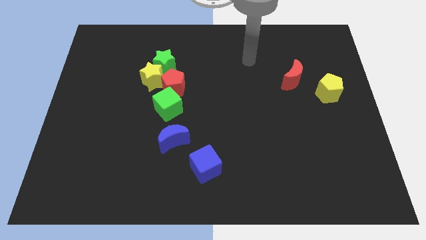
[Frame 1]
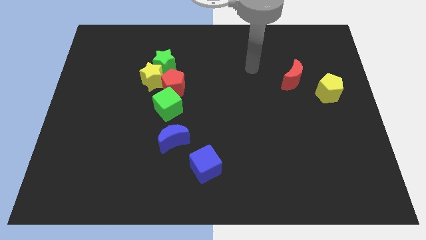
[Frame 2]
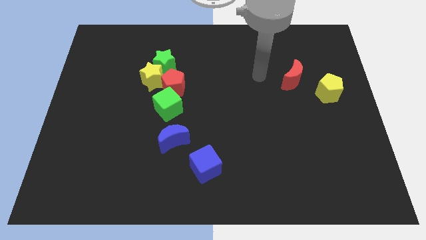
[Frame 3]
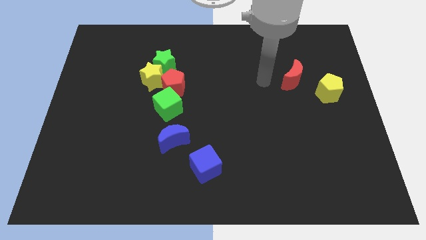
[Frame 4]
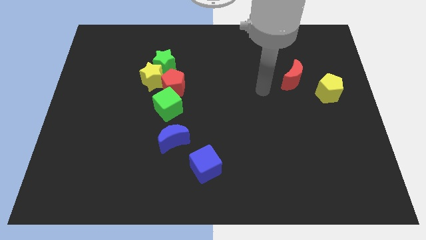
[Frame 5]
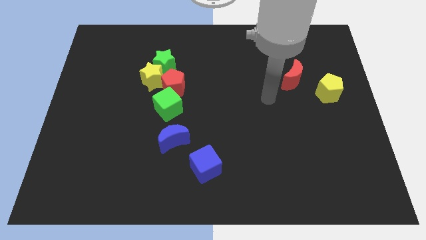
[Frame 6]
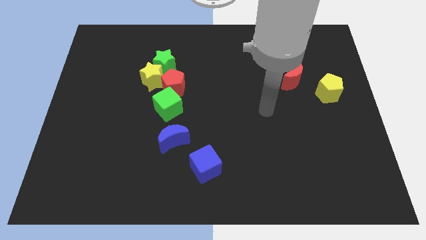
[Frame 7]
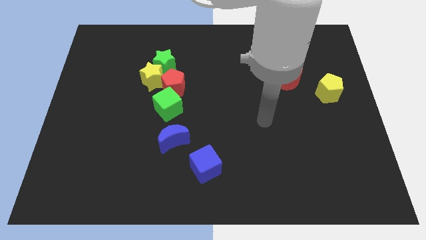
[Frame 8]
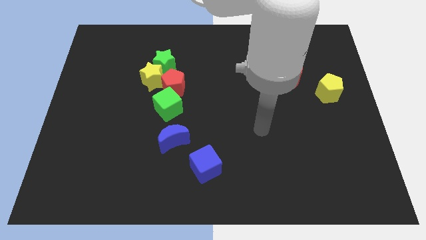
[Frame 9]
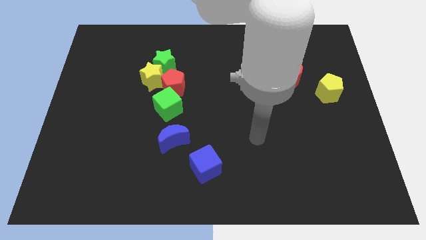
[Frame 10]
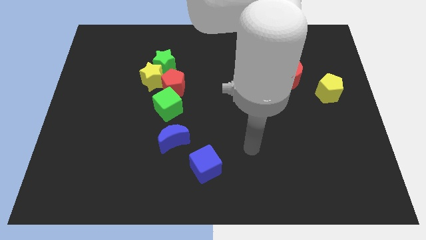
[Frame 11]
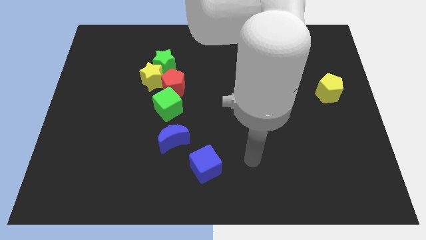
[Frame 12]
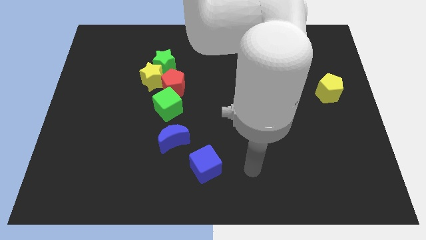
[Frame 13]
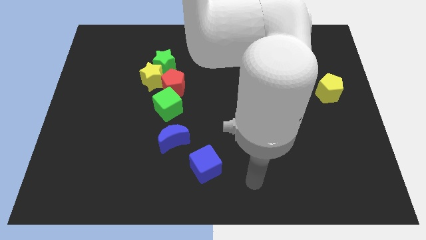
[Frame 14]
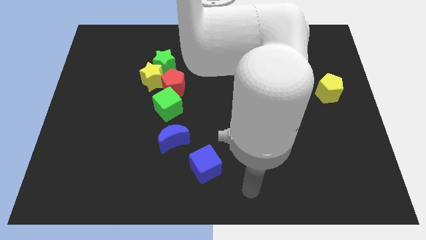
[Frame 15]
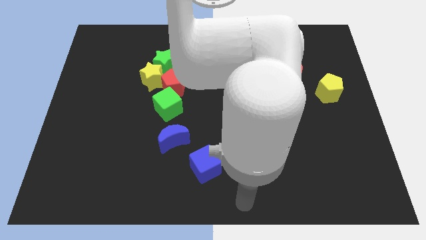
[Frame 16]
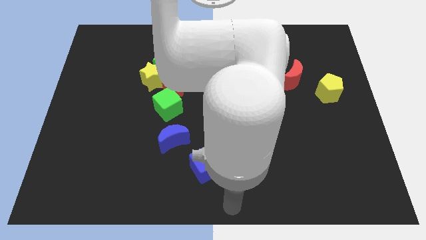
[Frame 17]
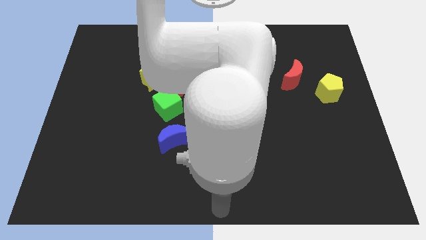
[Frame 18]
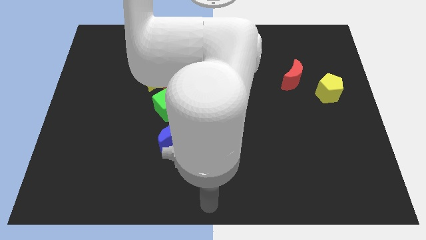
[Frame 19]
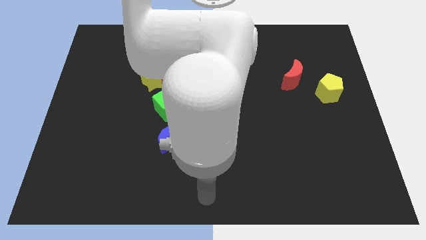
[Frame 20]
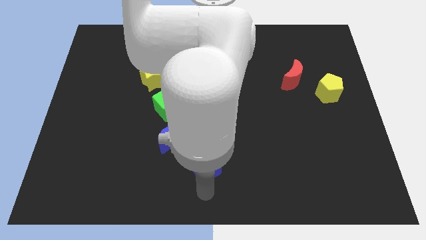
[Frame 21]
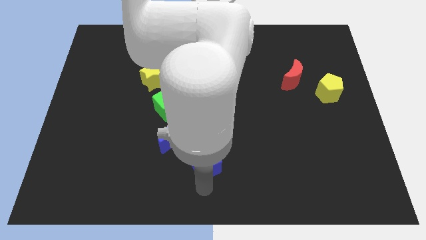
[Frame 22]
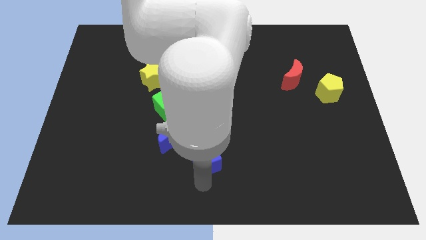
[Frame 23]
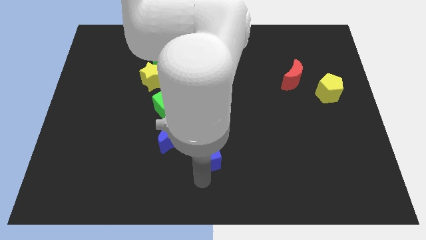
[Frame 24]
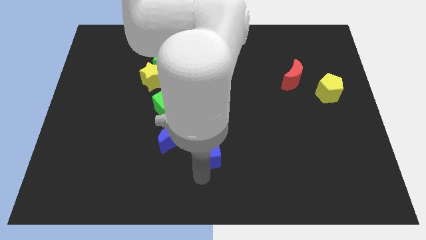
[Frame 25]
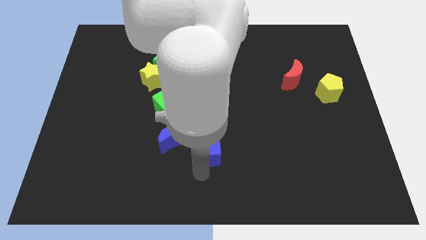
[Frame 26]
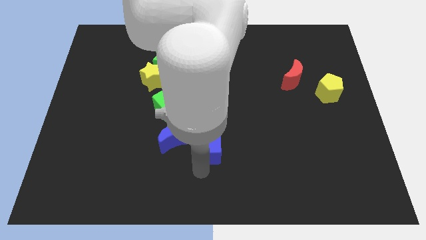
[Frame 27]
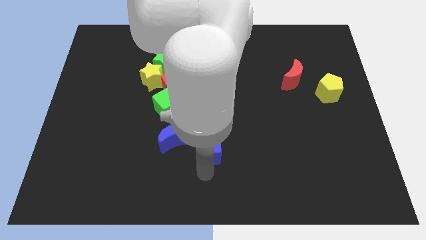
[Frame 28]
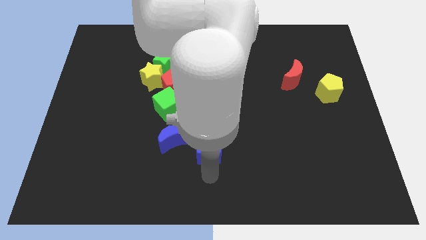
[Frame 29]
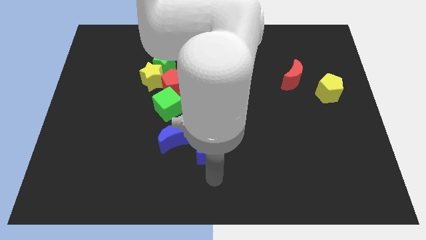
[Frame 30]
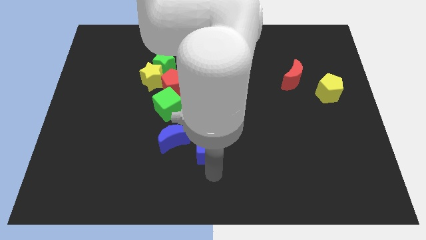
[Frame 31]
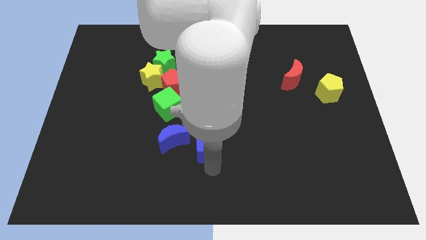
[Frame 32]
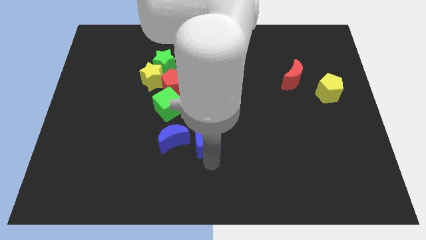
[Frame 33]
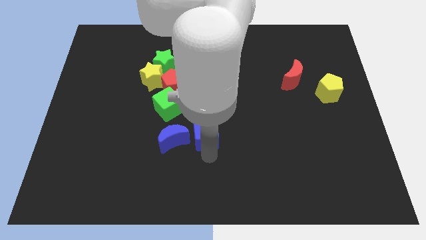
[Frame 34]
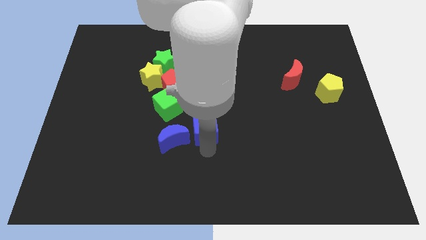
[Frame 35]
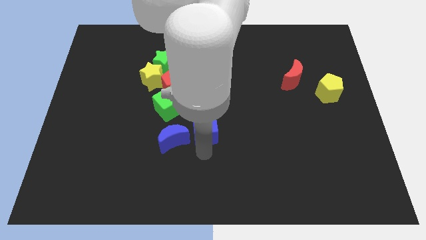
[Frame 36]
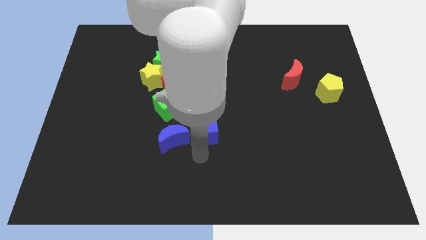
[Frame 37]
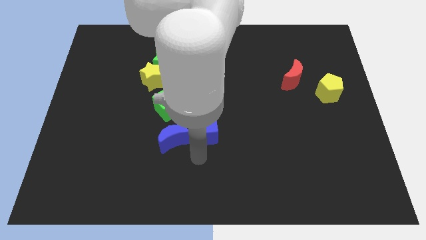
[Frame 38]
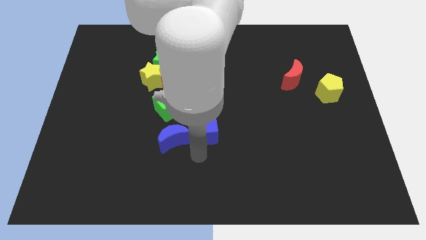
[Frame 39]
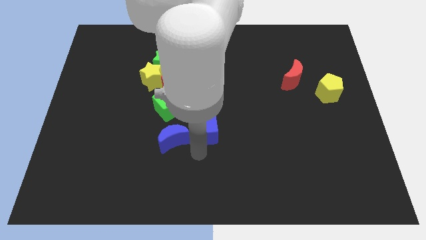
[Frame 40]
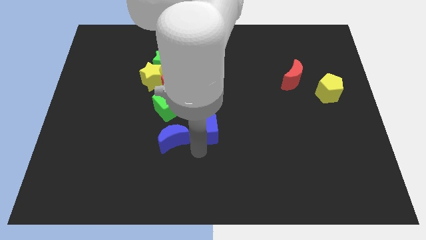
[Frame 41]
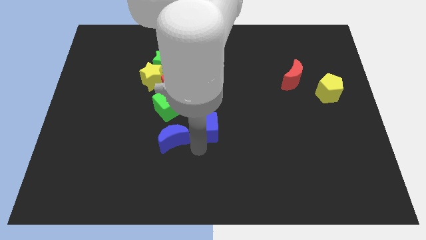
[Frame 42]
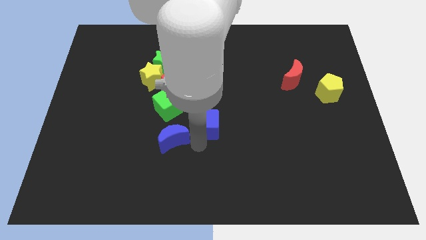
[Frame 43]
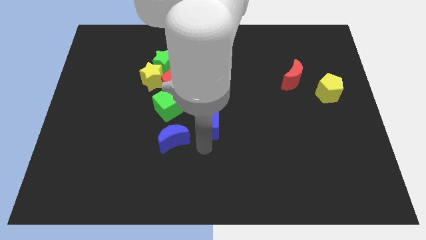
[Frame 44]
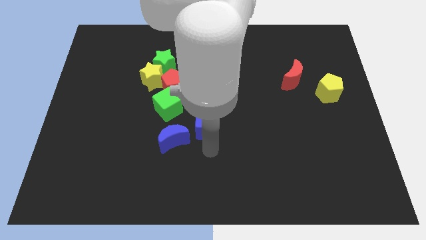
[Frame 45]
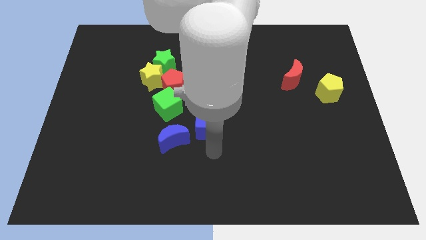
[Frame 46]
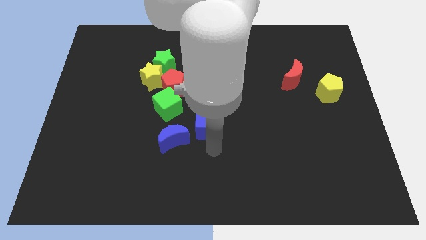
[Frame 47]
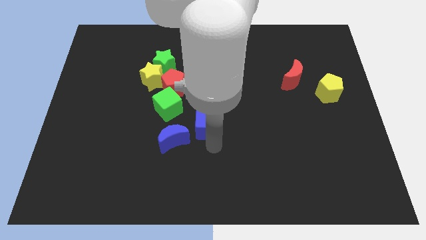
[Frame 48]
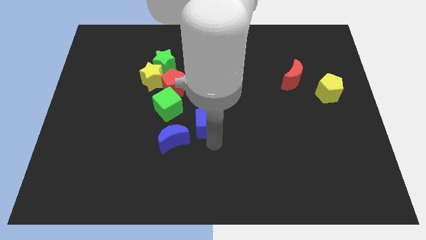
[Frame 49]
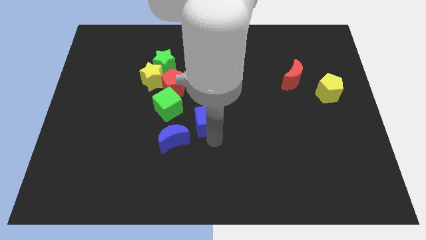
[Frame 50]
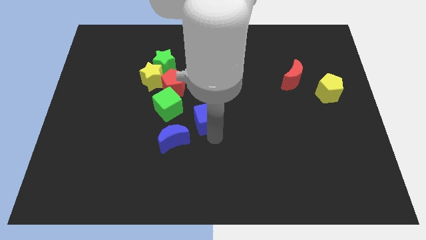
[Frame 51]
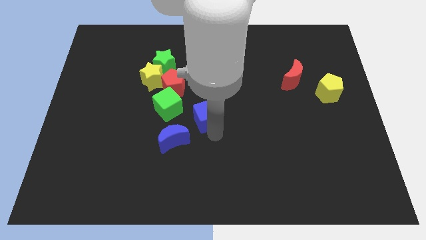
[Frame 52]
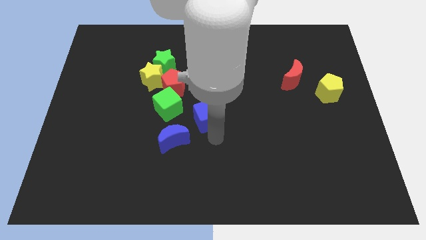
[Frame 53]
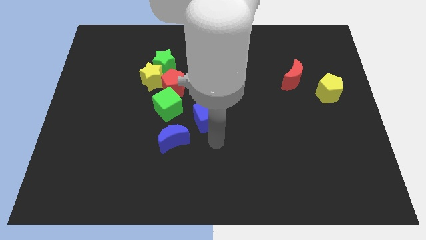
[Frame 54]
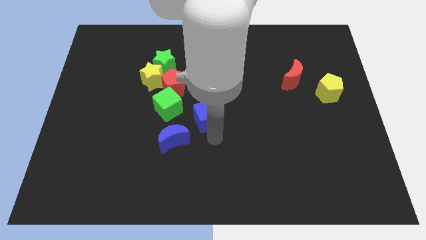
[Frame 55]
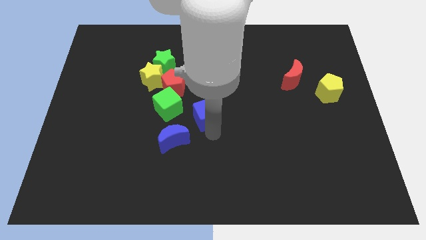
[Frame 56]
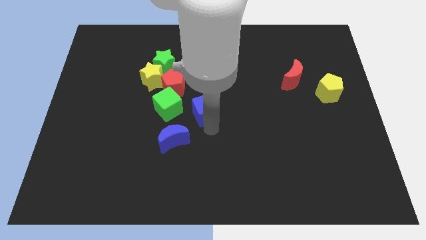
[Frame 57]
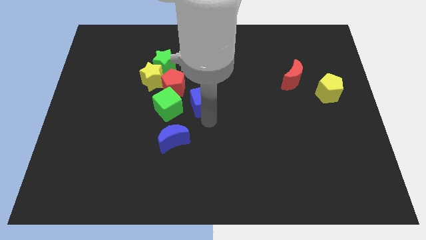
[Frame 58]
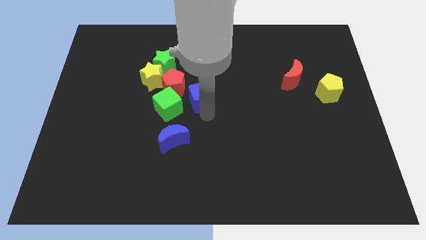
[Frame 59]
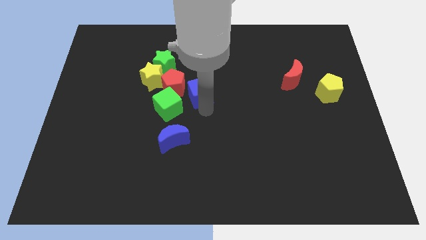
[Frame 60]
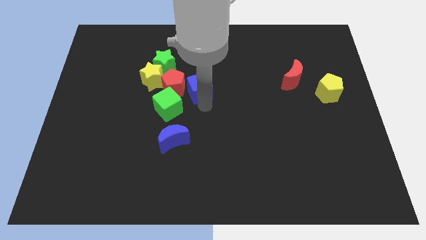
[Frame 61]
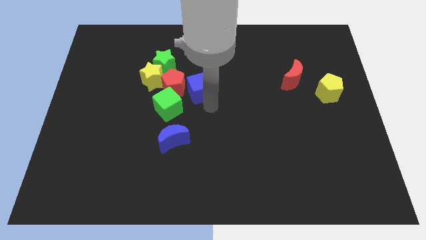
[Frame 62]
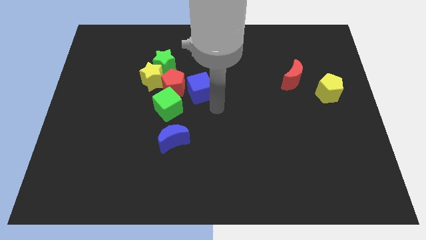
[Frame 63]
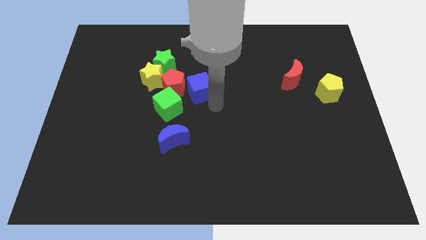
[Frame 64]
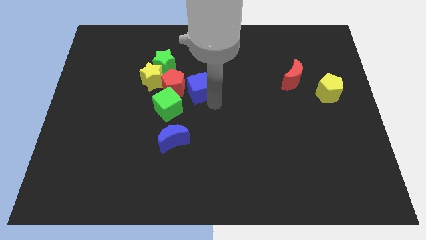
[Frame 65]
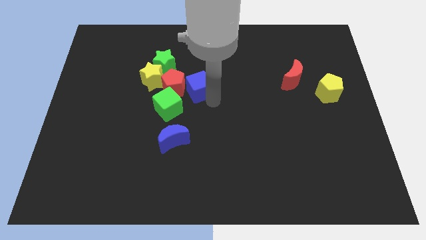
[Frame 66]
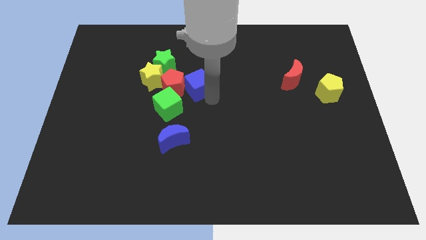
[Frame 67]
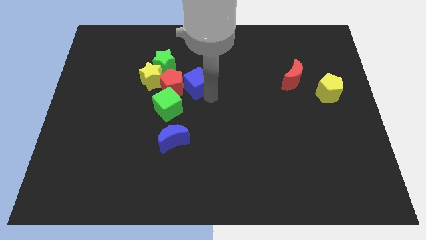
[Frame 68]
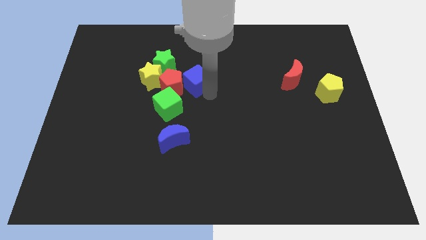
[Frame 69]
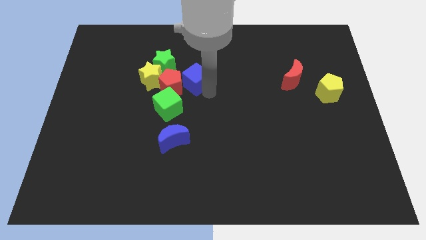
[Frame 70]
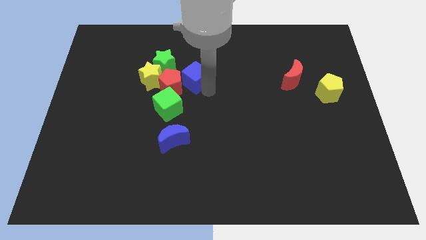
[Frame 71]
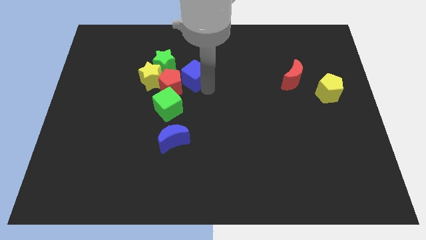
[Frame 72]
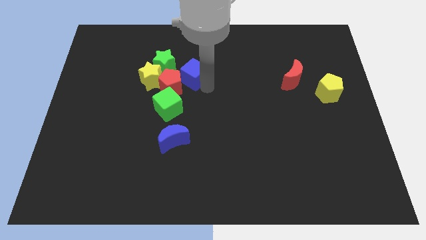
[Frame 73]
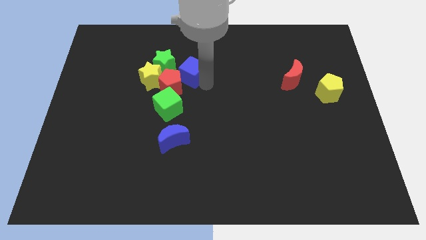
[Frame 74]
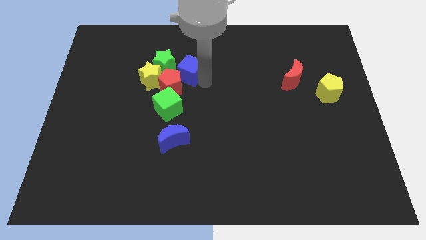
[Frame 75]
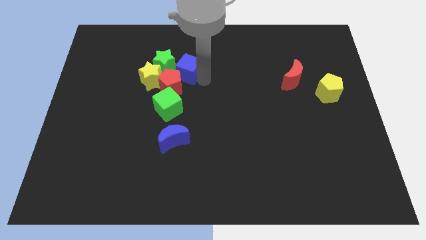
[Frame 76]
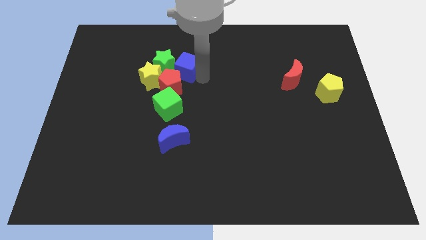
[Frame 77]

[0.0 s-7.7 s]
move the blue cube close to the green star

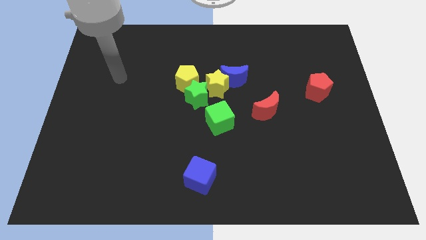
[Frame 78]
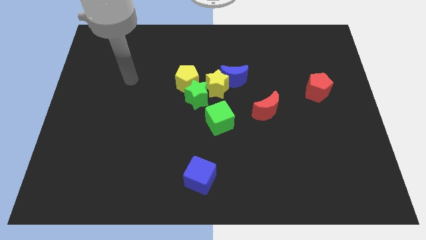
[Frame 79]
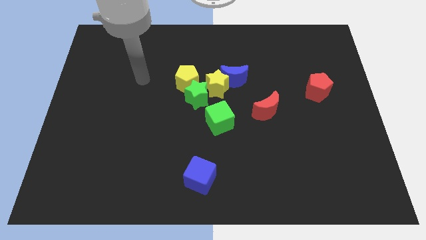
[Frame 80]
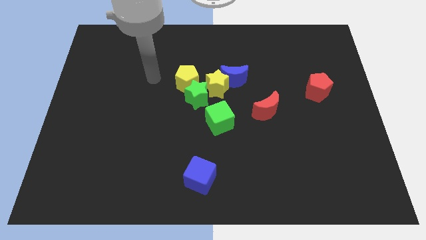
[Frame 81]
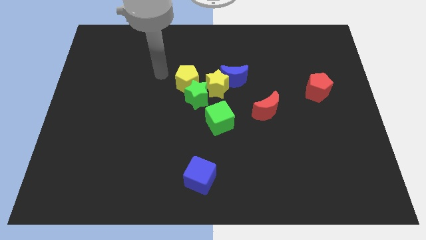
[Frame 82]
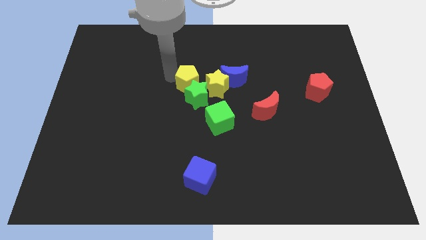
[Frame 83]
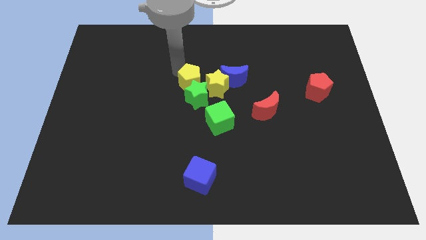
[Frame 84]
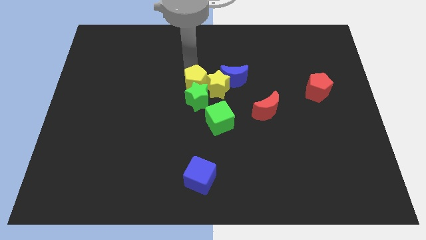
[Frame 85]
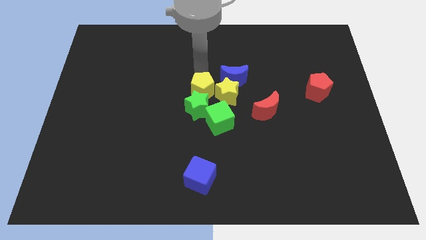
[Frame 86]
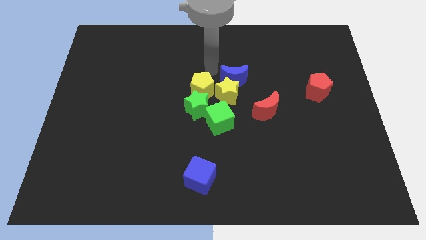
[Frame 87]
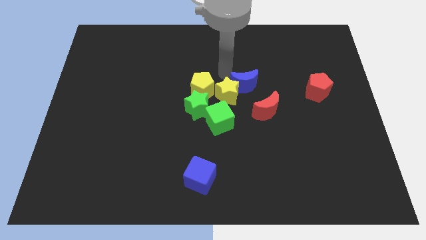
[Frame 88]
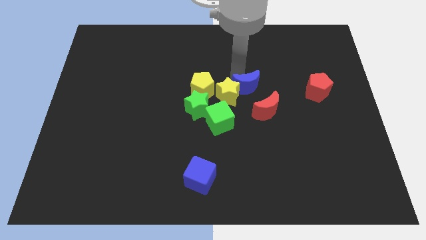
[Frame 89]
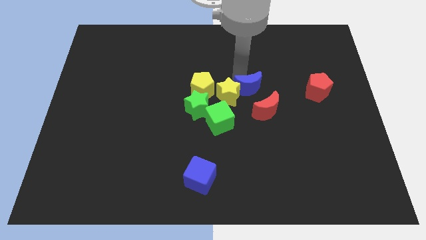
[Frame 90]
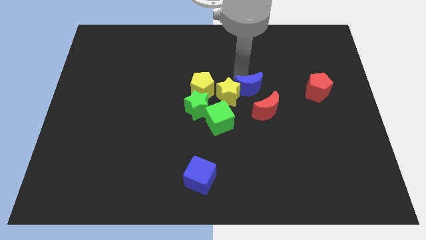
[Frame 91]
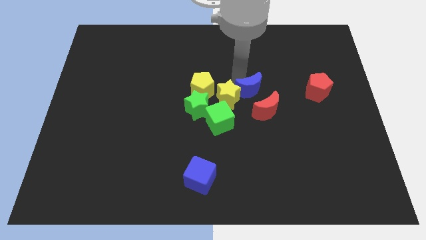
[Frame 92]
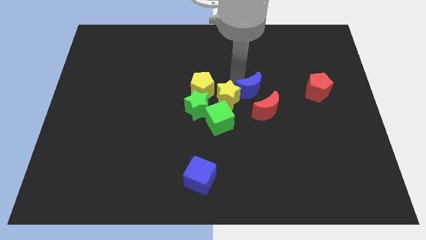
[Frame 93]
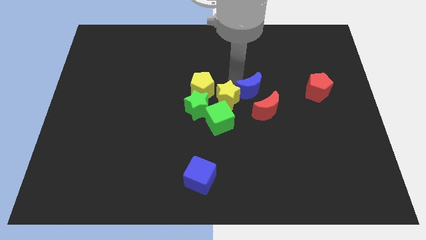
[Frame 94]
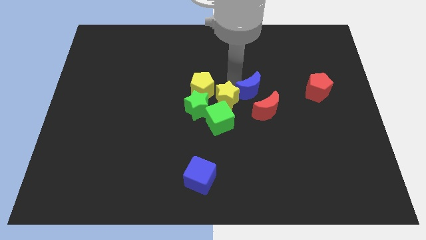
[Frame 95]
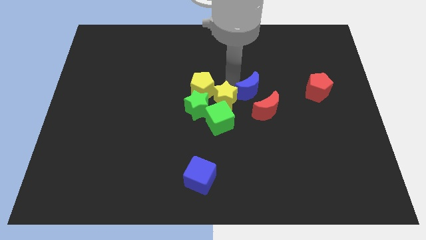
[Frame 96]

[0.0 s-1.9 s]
push the yellow star to the green cube
